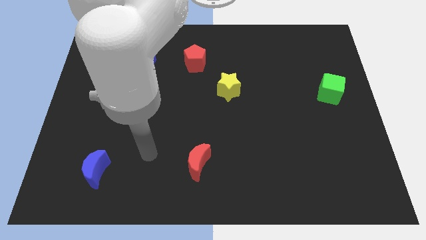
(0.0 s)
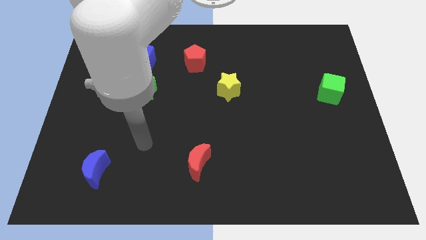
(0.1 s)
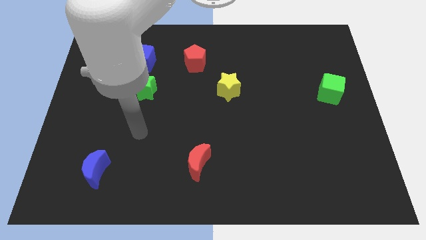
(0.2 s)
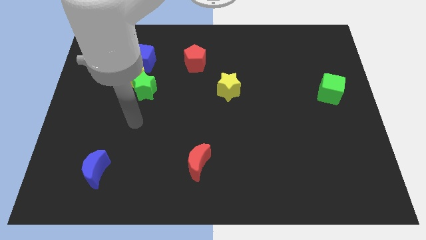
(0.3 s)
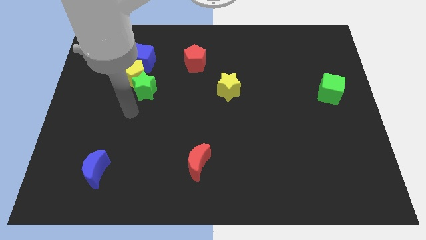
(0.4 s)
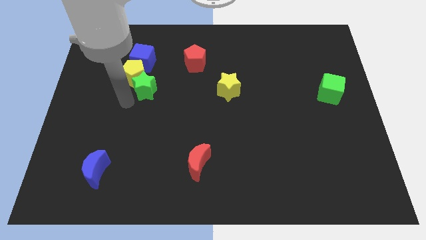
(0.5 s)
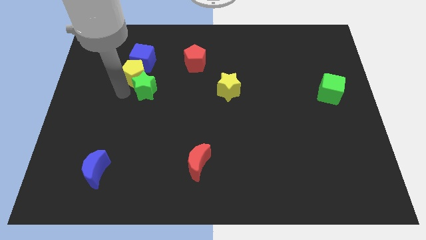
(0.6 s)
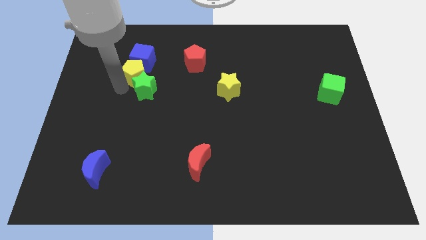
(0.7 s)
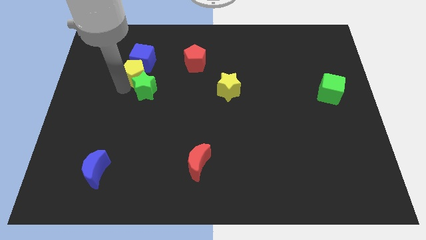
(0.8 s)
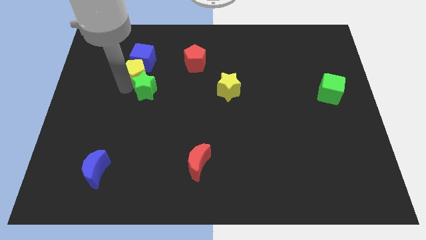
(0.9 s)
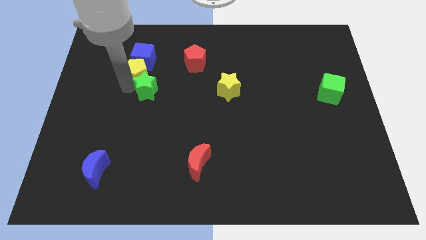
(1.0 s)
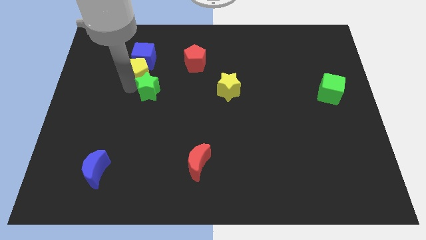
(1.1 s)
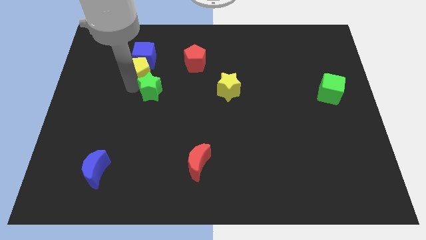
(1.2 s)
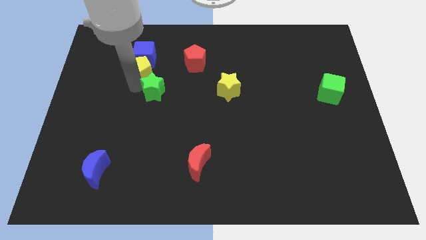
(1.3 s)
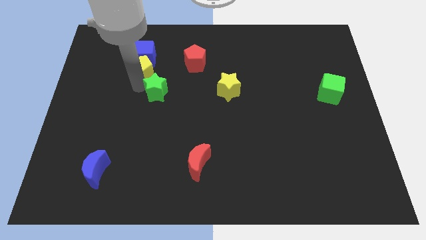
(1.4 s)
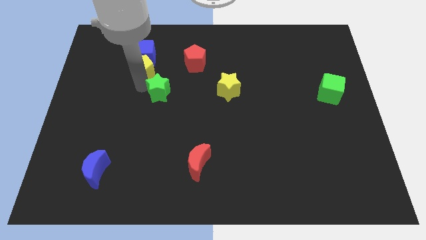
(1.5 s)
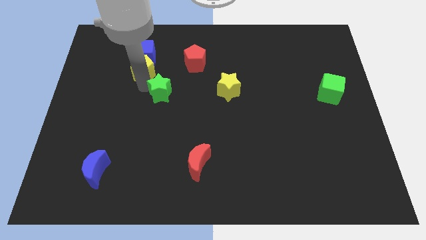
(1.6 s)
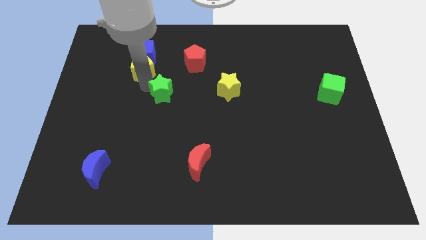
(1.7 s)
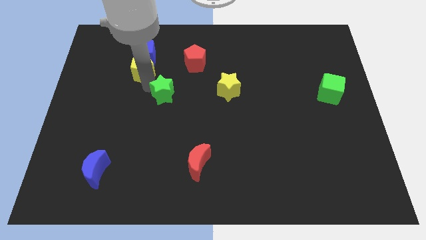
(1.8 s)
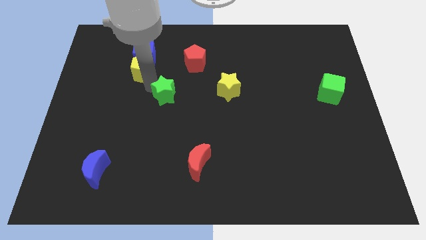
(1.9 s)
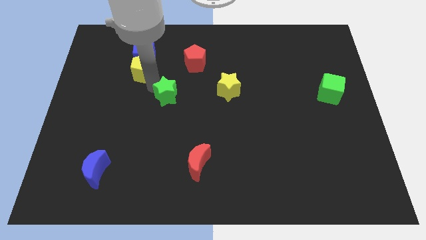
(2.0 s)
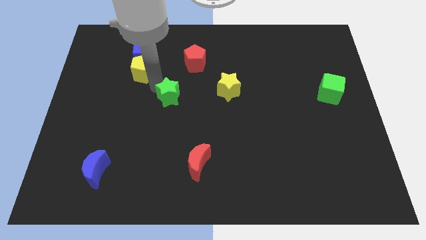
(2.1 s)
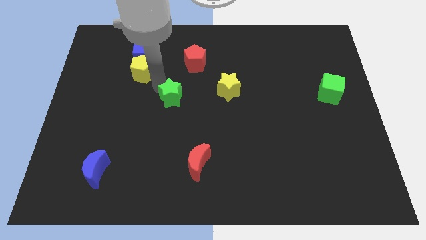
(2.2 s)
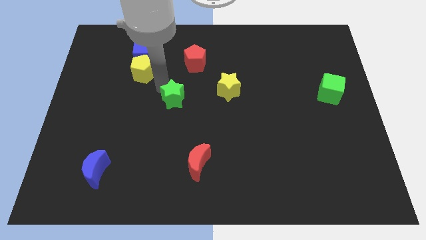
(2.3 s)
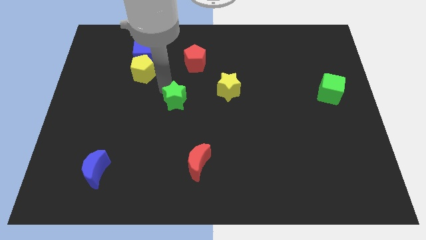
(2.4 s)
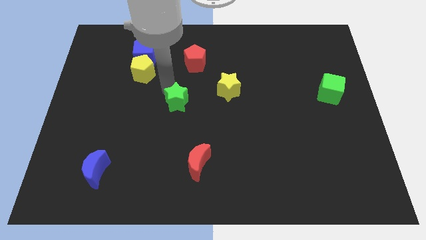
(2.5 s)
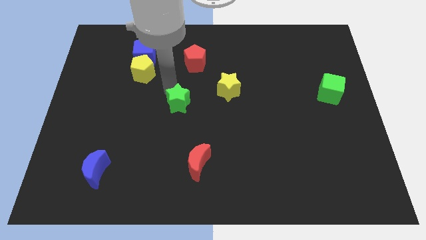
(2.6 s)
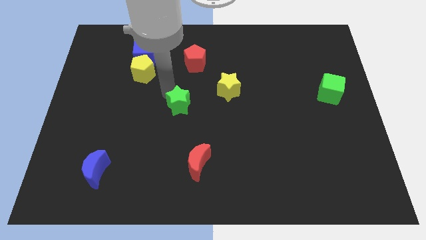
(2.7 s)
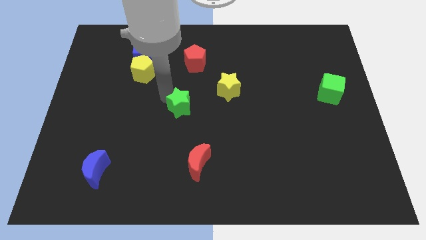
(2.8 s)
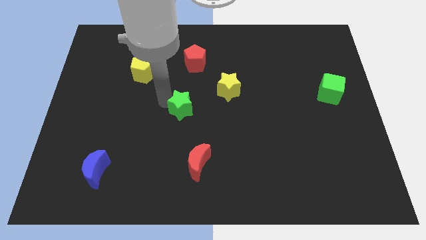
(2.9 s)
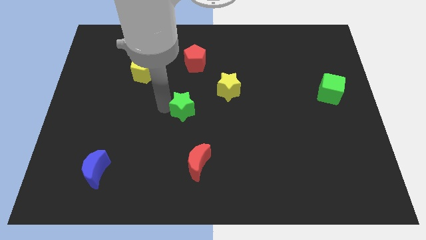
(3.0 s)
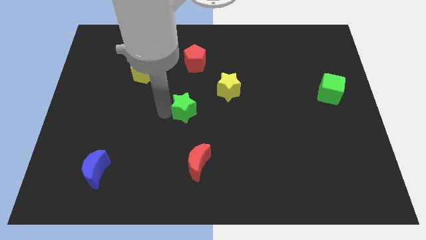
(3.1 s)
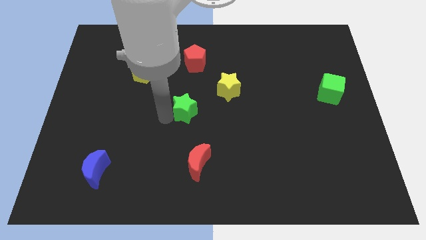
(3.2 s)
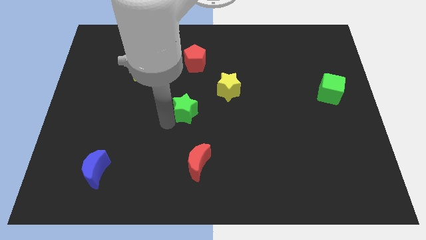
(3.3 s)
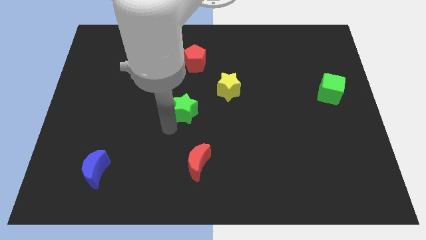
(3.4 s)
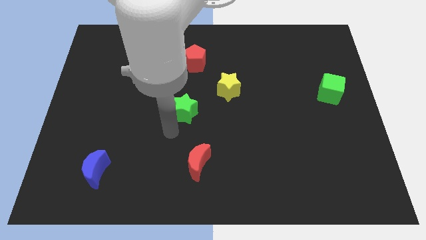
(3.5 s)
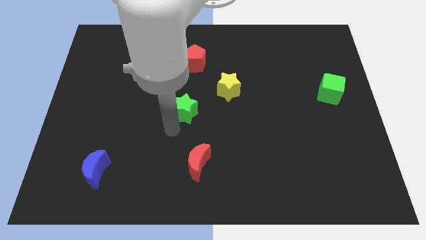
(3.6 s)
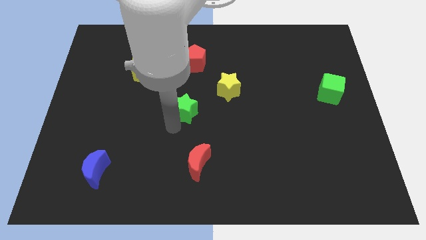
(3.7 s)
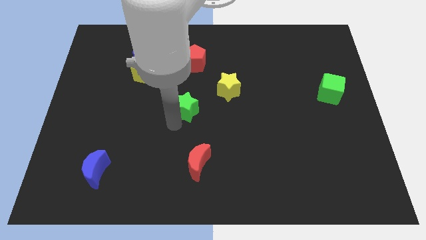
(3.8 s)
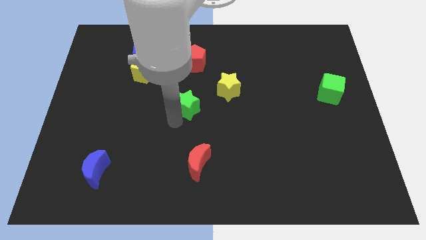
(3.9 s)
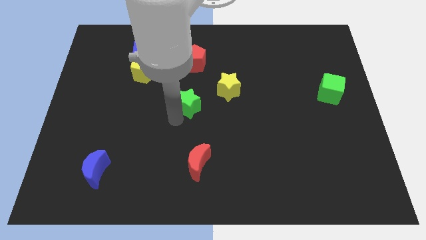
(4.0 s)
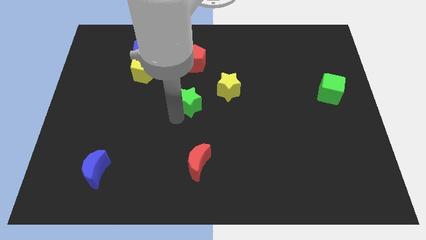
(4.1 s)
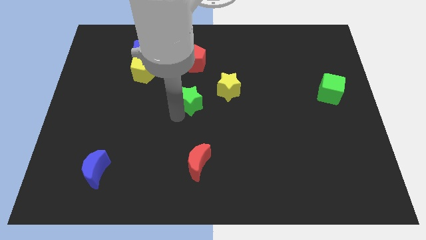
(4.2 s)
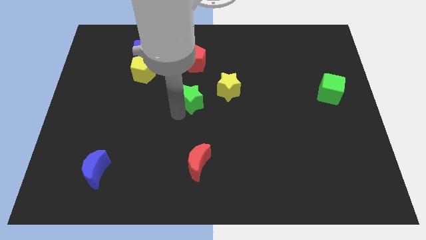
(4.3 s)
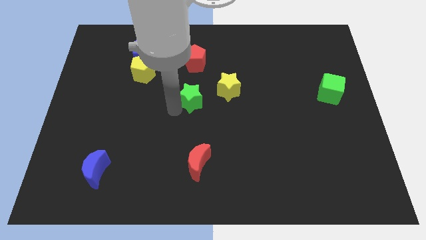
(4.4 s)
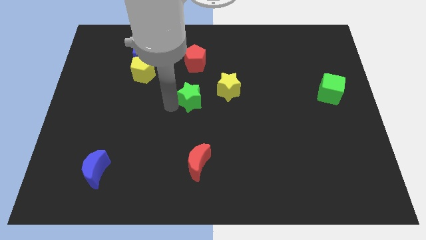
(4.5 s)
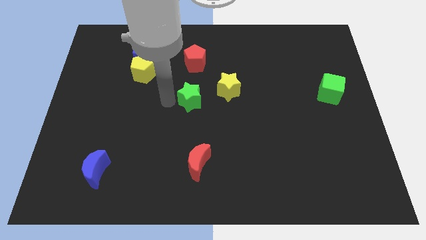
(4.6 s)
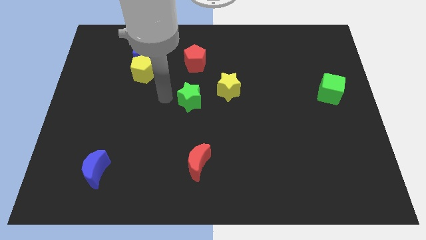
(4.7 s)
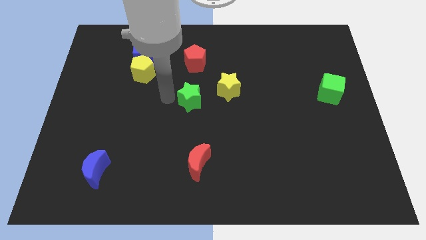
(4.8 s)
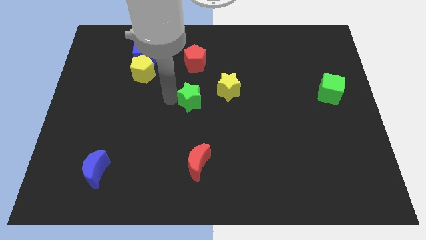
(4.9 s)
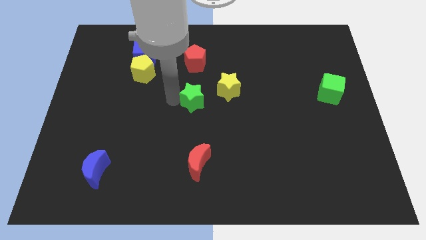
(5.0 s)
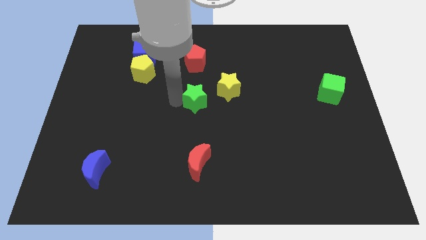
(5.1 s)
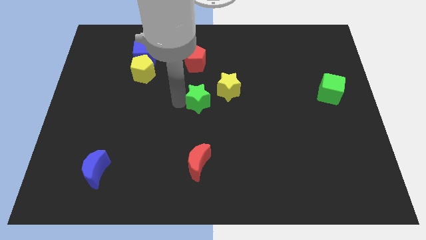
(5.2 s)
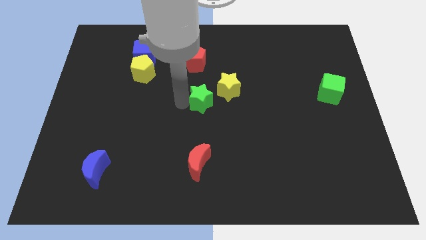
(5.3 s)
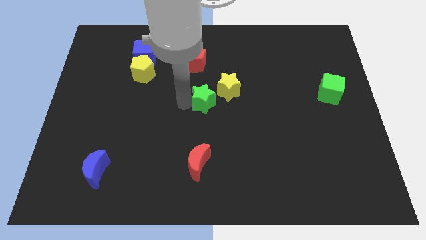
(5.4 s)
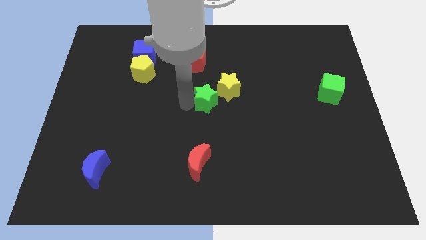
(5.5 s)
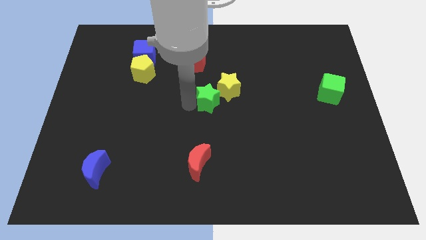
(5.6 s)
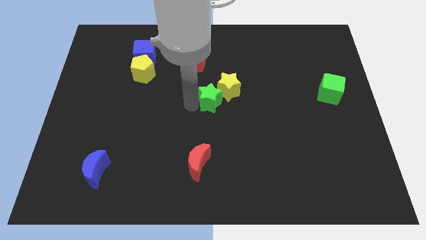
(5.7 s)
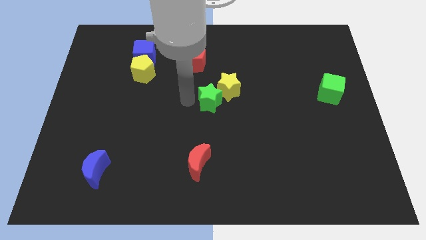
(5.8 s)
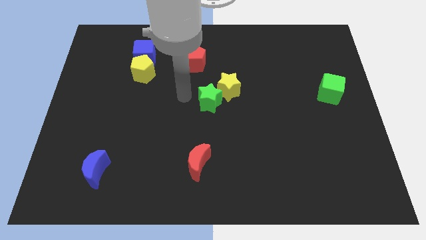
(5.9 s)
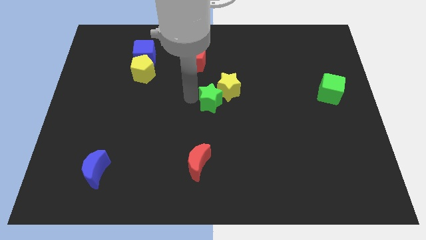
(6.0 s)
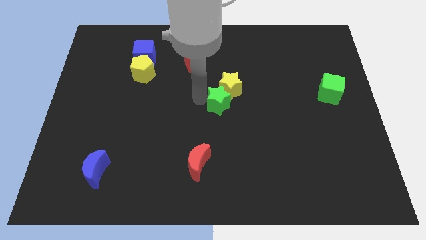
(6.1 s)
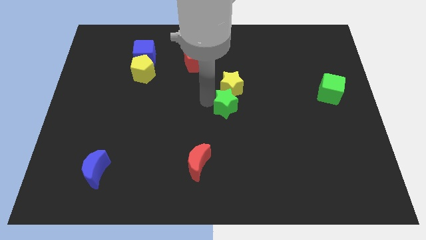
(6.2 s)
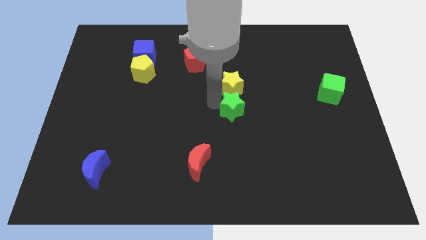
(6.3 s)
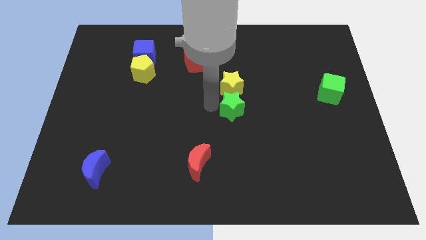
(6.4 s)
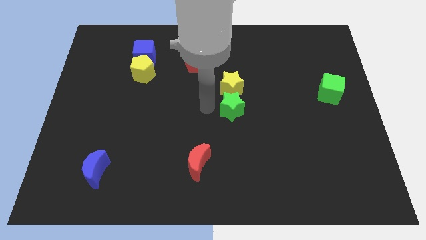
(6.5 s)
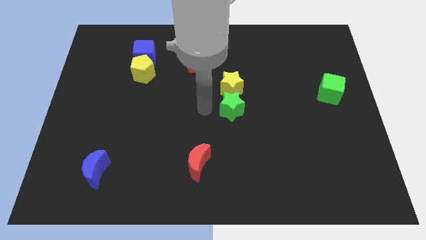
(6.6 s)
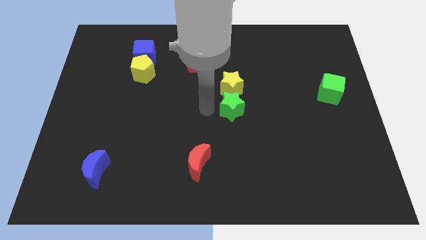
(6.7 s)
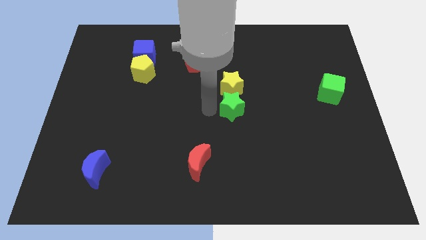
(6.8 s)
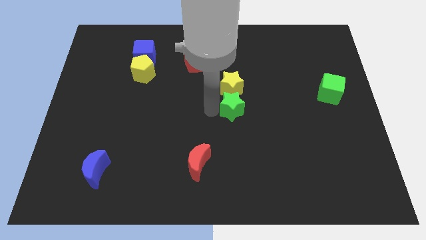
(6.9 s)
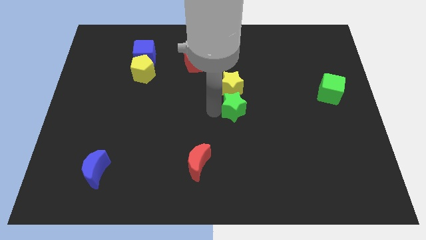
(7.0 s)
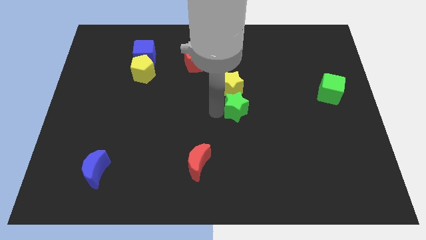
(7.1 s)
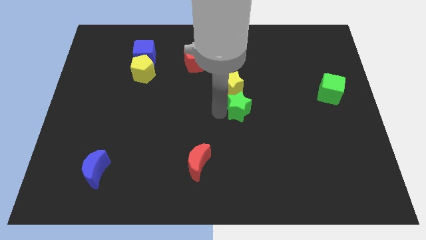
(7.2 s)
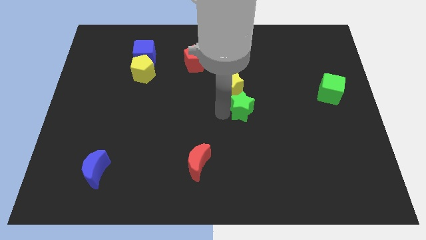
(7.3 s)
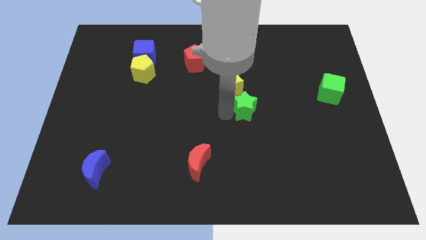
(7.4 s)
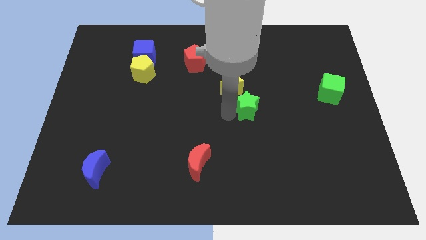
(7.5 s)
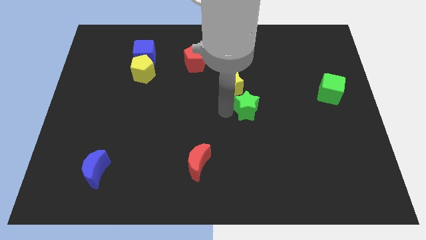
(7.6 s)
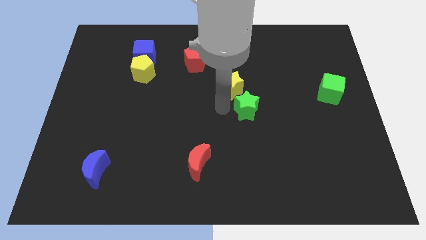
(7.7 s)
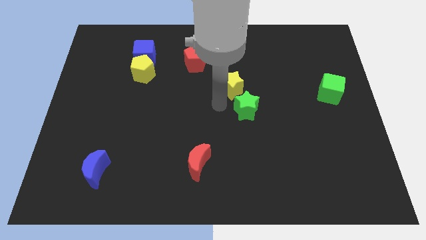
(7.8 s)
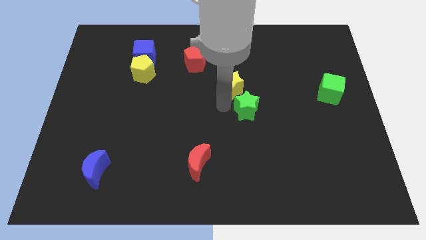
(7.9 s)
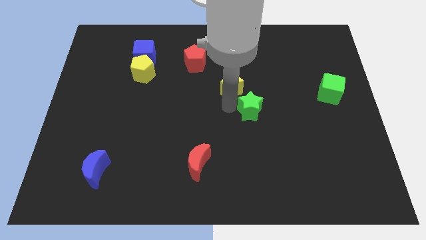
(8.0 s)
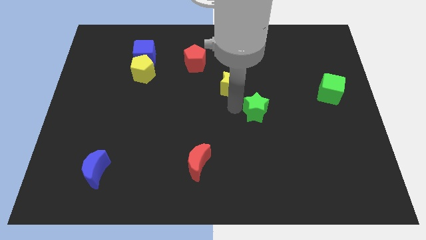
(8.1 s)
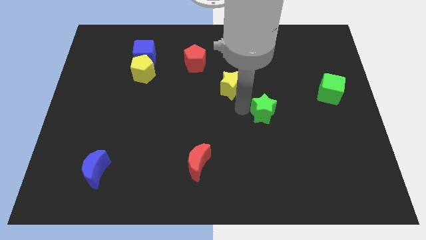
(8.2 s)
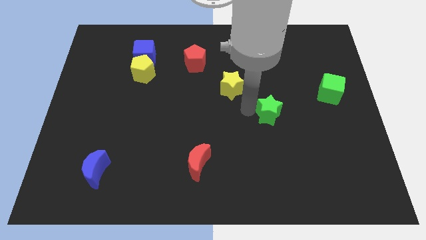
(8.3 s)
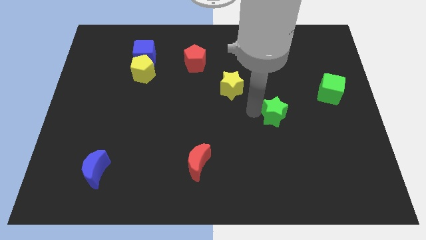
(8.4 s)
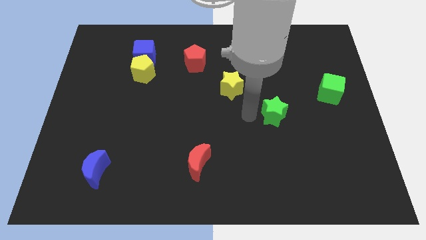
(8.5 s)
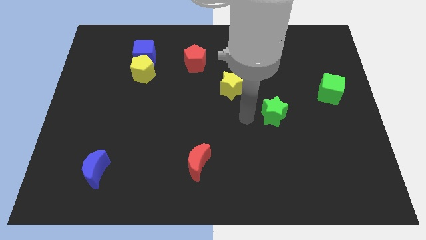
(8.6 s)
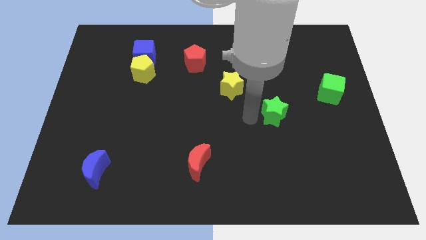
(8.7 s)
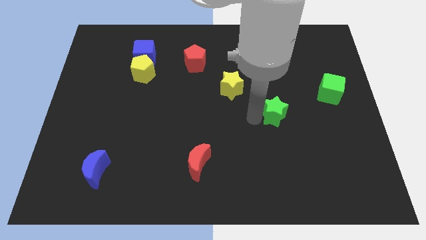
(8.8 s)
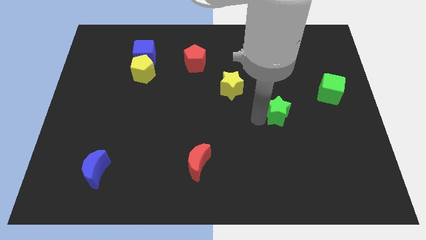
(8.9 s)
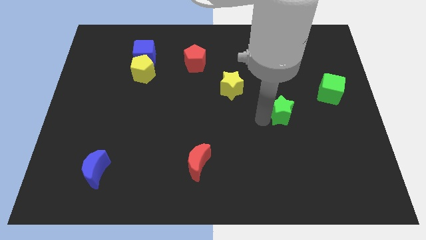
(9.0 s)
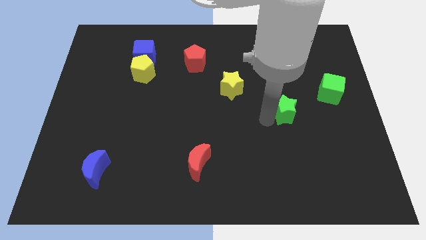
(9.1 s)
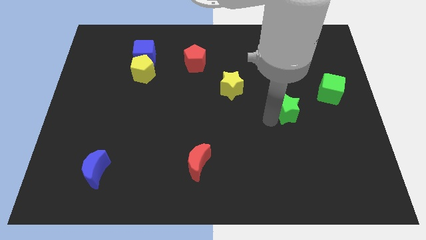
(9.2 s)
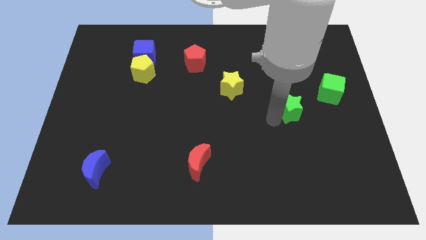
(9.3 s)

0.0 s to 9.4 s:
push the green star diagonally down and to the left of the green cube
